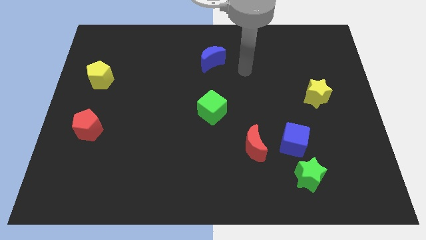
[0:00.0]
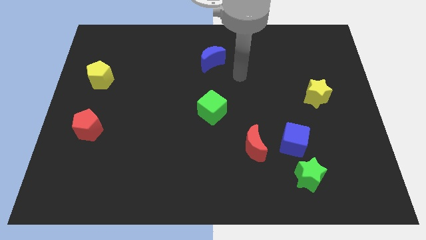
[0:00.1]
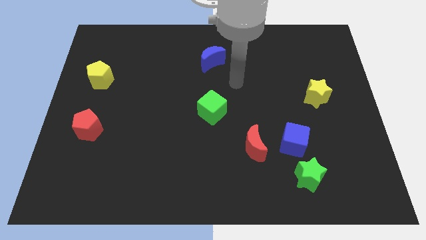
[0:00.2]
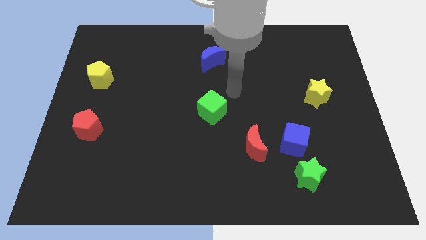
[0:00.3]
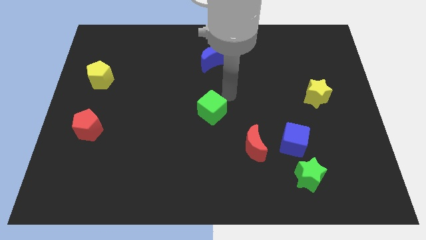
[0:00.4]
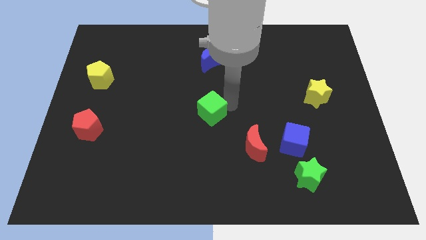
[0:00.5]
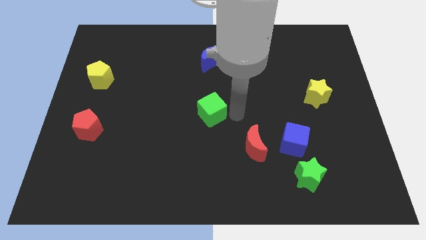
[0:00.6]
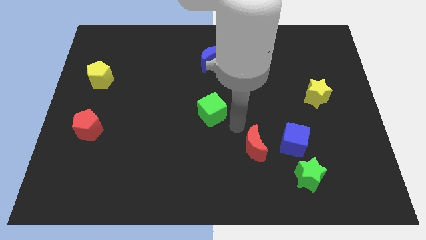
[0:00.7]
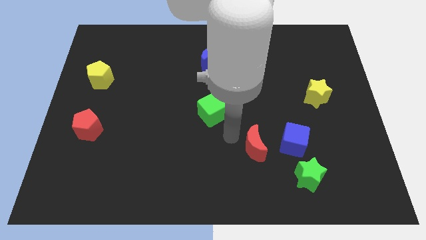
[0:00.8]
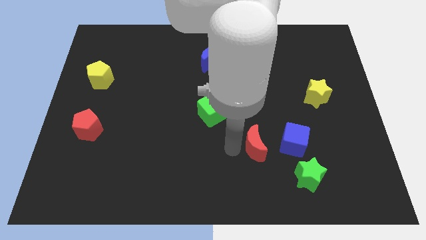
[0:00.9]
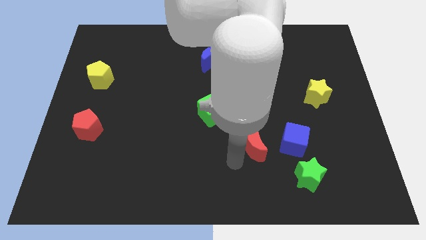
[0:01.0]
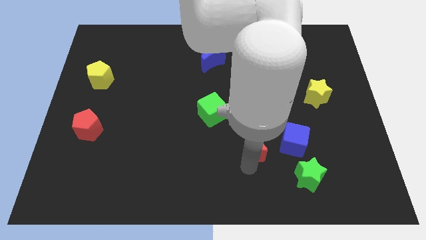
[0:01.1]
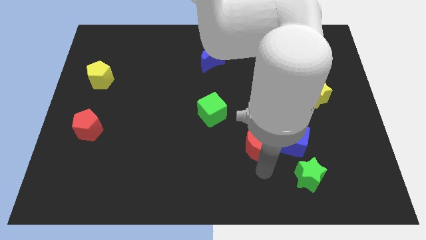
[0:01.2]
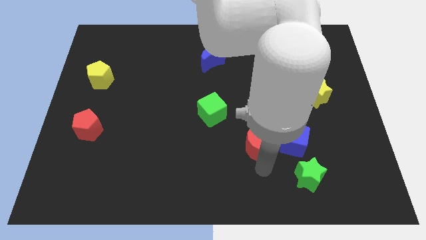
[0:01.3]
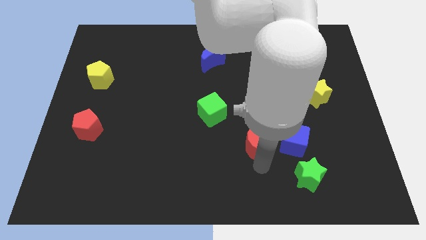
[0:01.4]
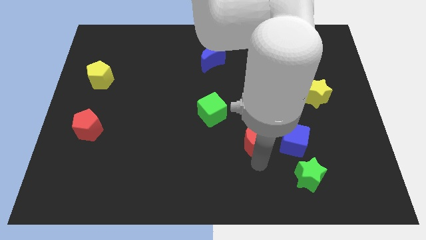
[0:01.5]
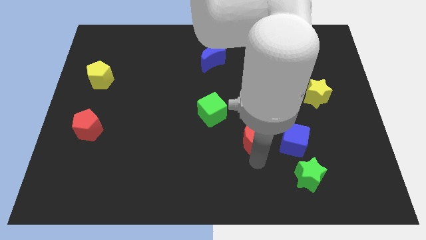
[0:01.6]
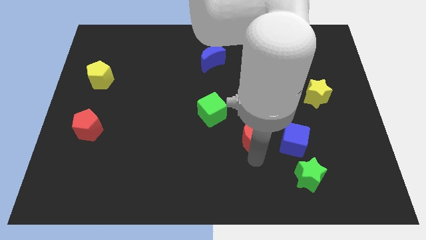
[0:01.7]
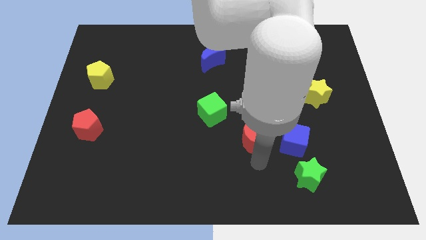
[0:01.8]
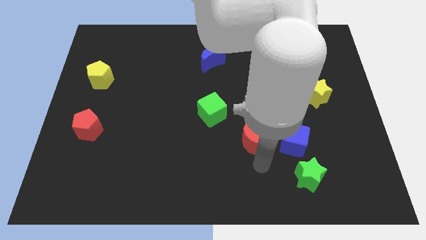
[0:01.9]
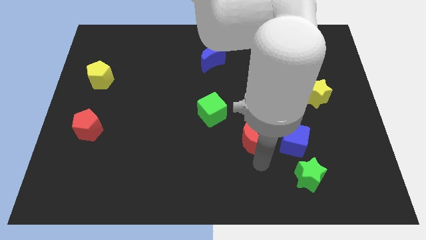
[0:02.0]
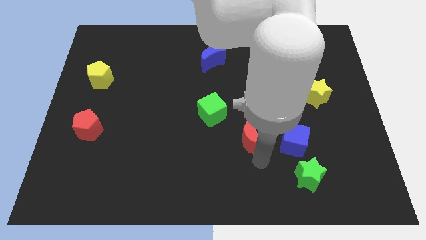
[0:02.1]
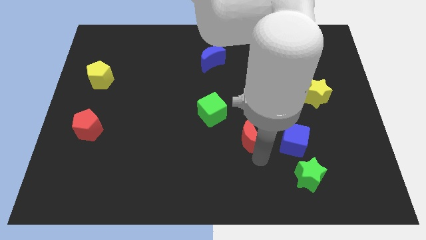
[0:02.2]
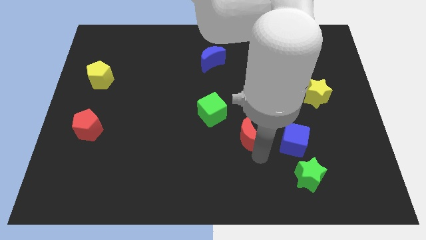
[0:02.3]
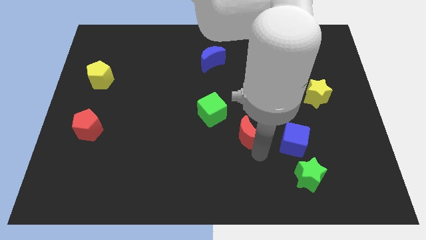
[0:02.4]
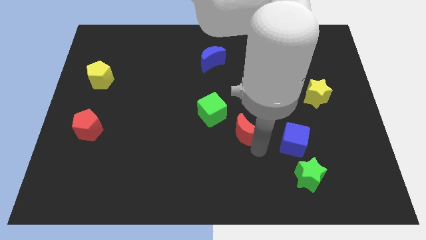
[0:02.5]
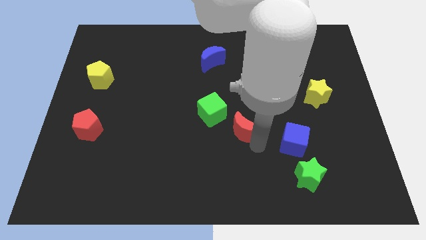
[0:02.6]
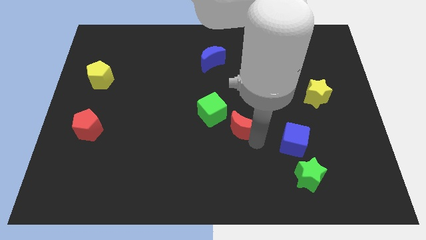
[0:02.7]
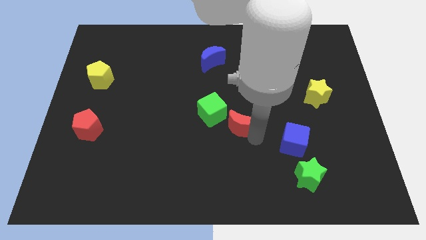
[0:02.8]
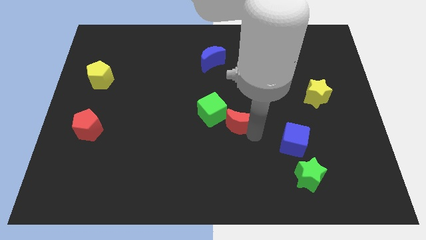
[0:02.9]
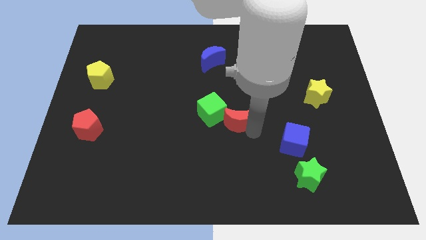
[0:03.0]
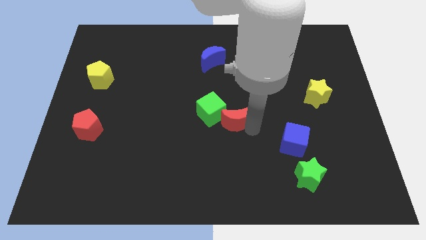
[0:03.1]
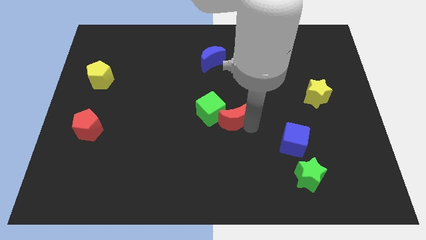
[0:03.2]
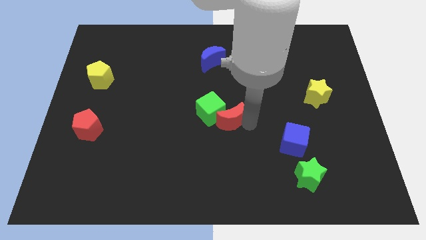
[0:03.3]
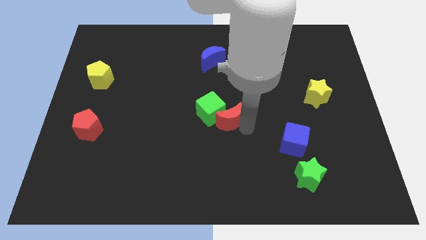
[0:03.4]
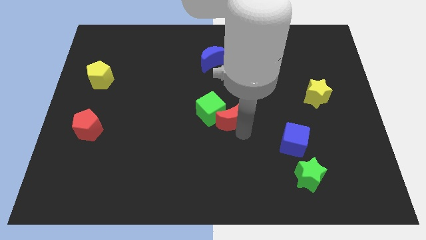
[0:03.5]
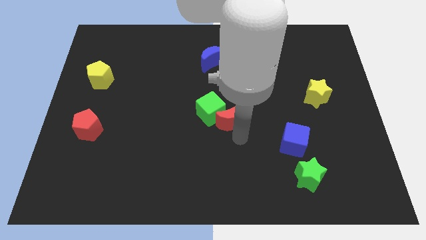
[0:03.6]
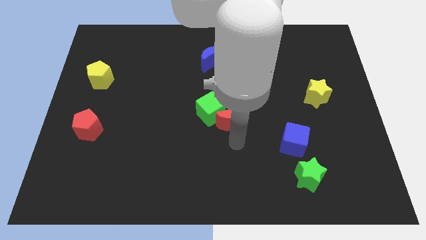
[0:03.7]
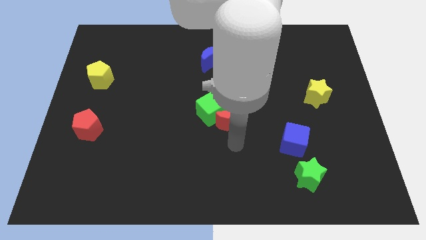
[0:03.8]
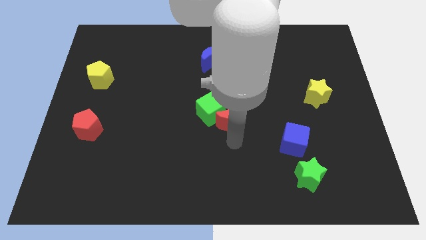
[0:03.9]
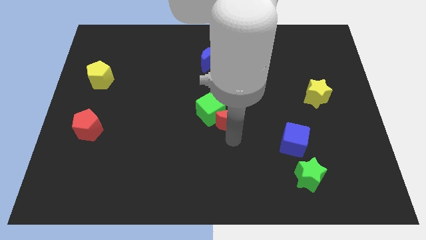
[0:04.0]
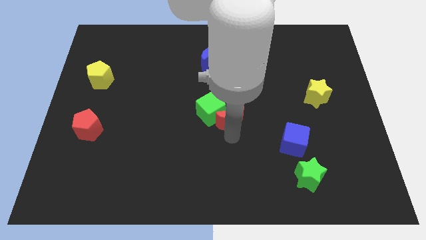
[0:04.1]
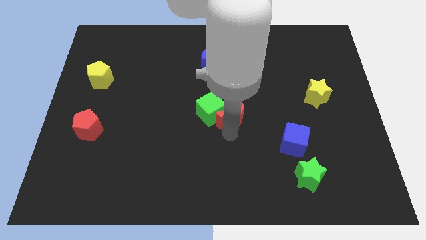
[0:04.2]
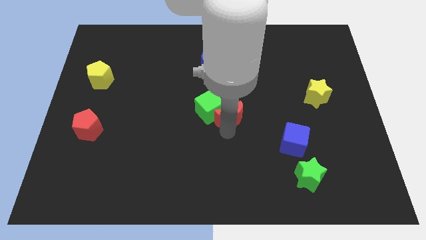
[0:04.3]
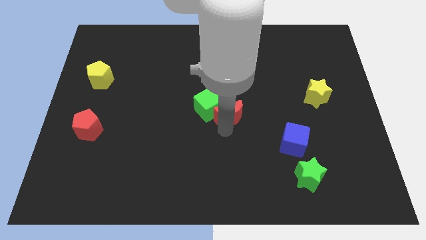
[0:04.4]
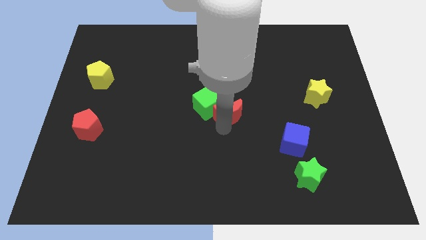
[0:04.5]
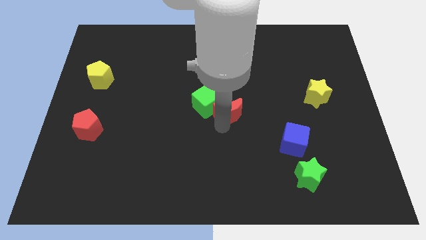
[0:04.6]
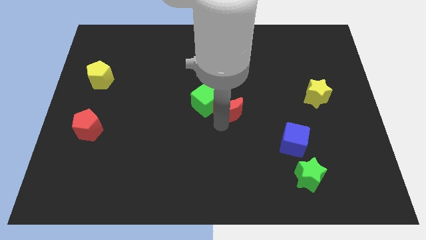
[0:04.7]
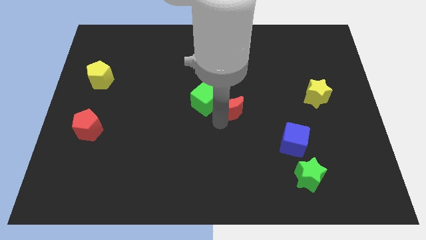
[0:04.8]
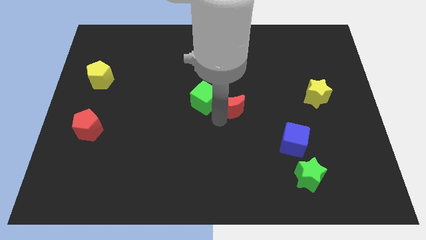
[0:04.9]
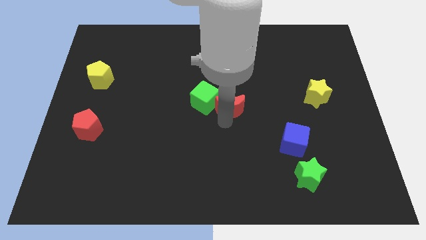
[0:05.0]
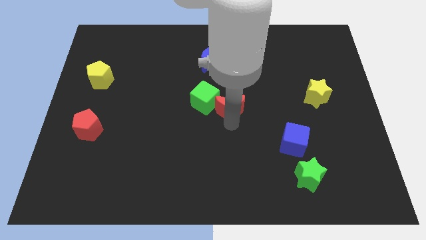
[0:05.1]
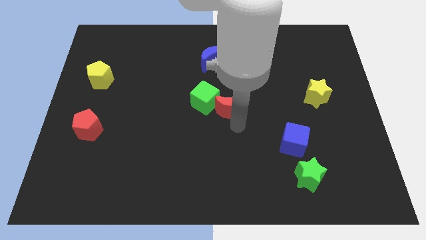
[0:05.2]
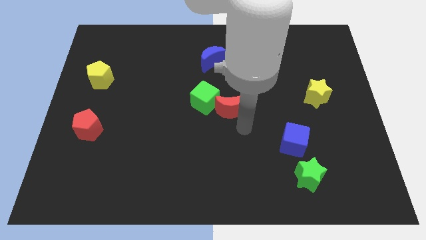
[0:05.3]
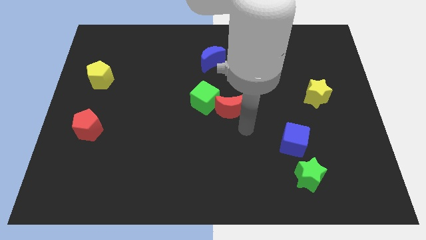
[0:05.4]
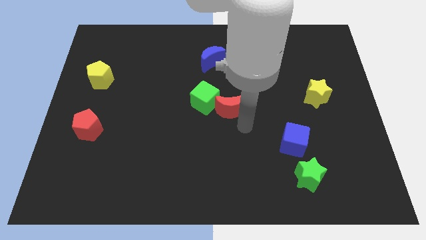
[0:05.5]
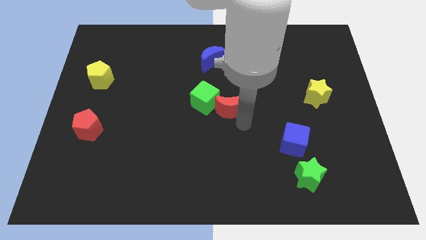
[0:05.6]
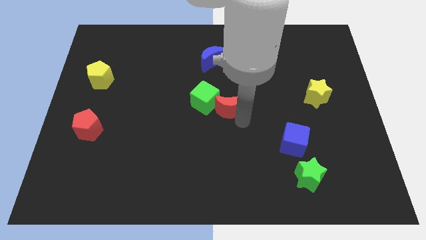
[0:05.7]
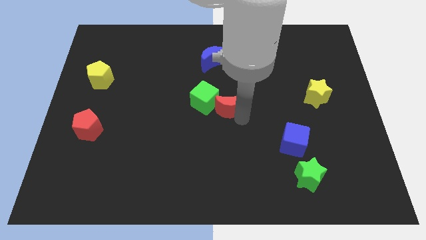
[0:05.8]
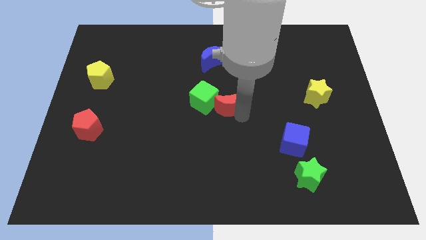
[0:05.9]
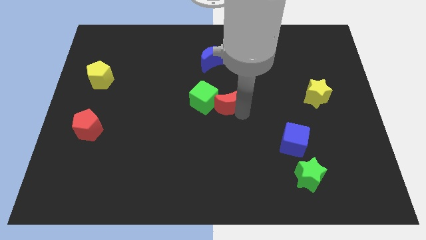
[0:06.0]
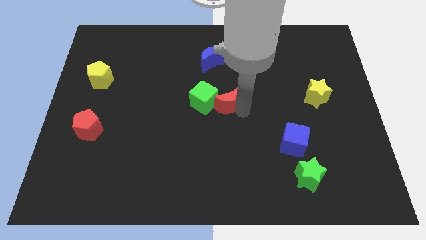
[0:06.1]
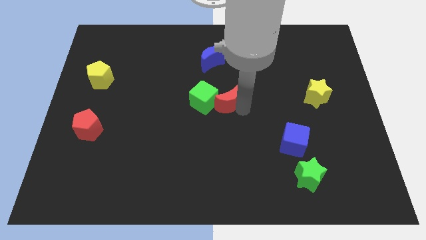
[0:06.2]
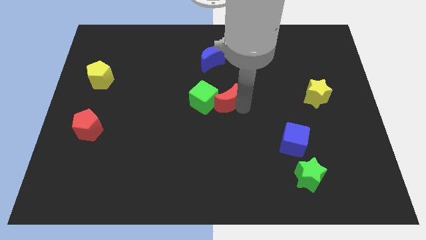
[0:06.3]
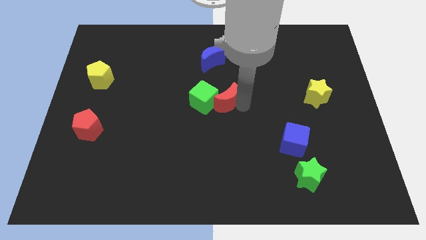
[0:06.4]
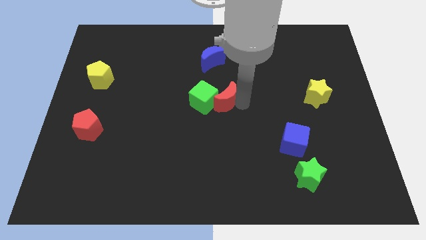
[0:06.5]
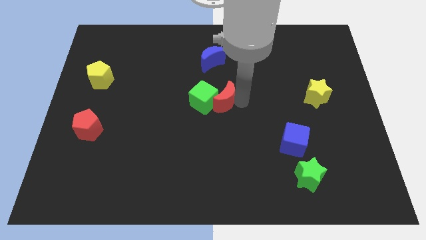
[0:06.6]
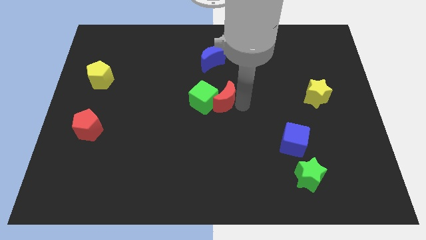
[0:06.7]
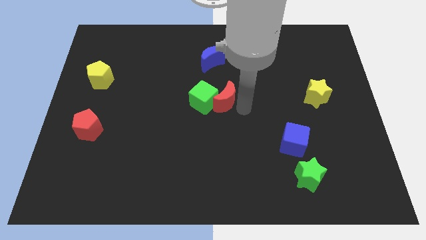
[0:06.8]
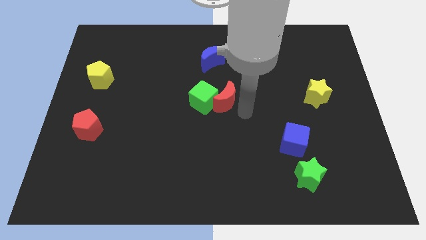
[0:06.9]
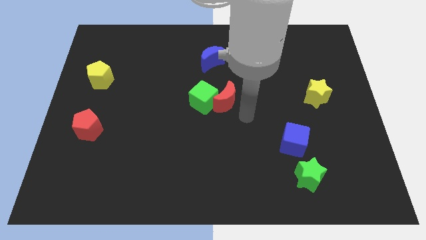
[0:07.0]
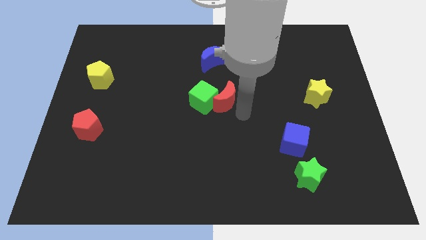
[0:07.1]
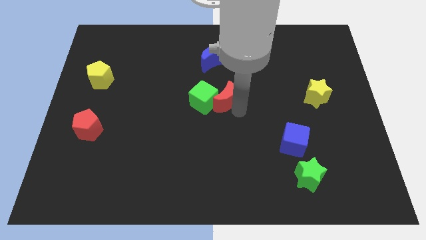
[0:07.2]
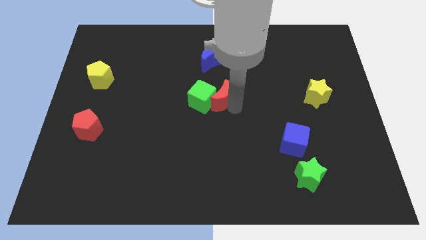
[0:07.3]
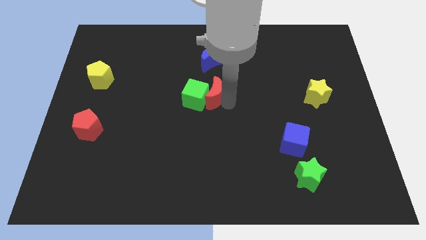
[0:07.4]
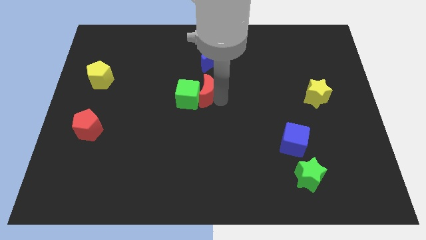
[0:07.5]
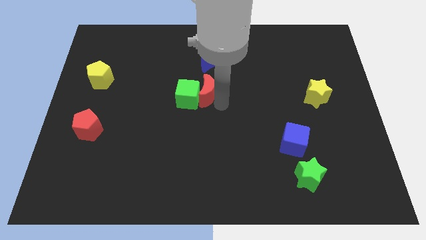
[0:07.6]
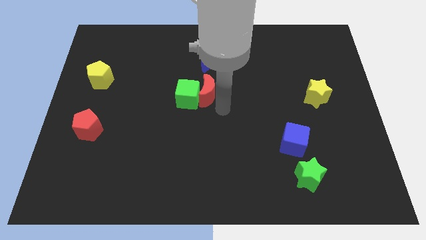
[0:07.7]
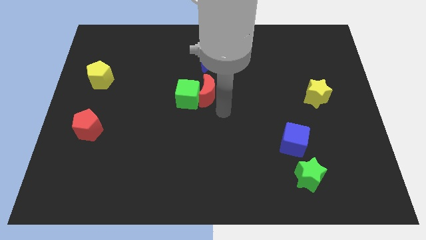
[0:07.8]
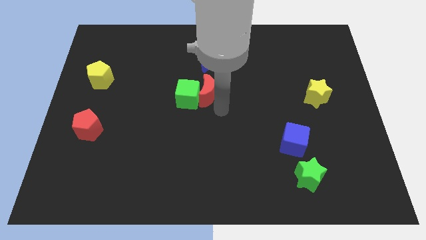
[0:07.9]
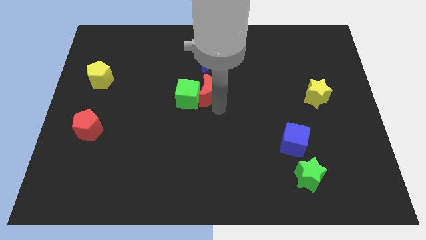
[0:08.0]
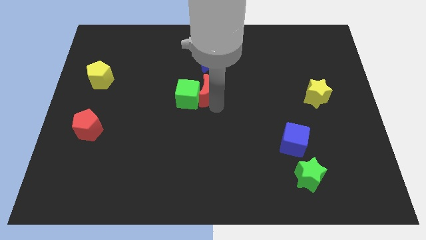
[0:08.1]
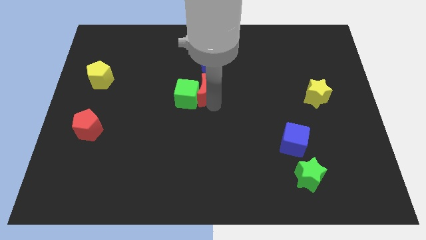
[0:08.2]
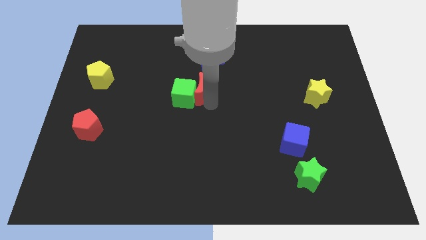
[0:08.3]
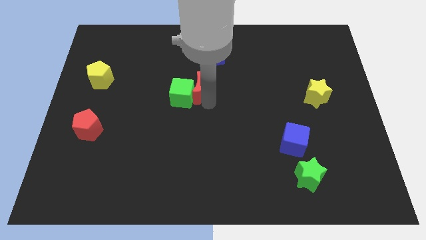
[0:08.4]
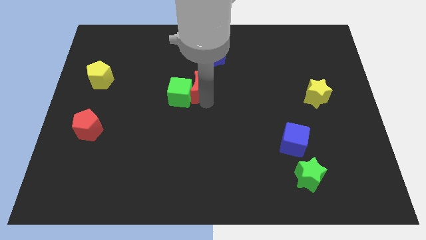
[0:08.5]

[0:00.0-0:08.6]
push the red moon up and then left
